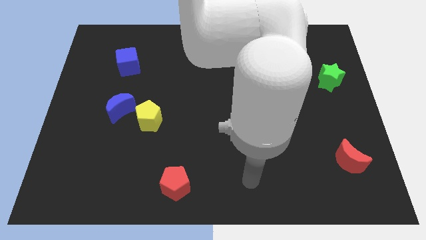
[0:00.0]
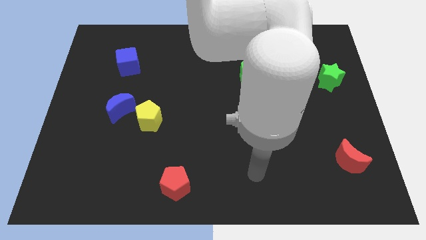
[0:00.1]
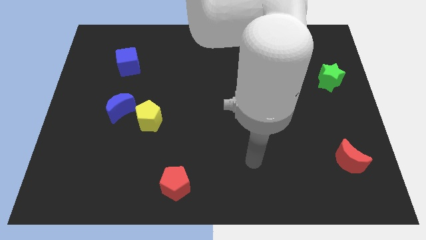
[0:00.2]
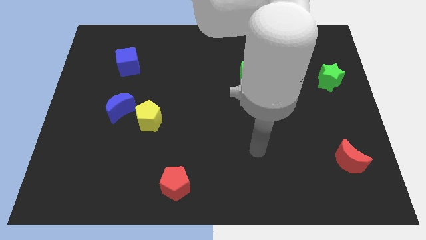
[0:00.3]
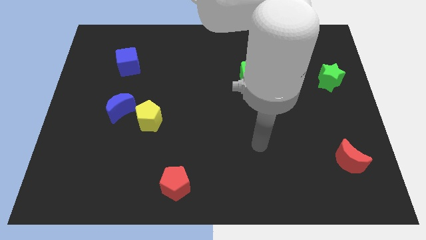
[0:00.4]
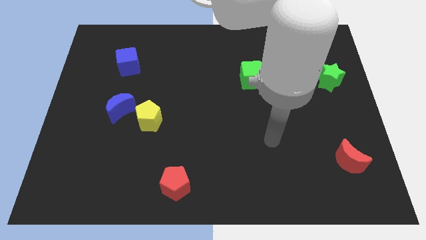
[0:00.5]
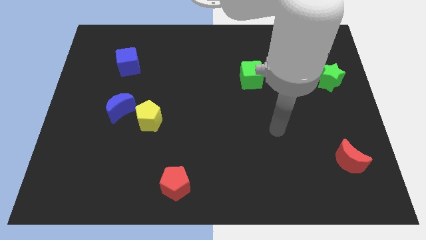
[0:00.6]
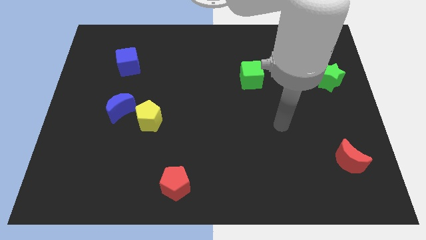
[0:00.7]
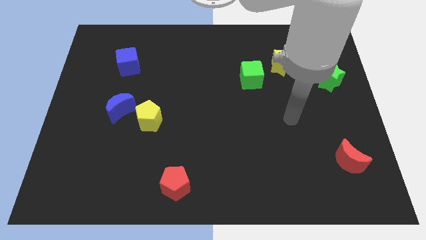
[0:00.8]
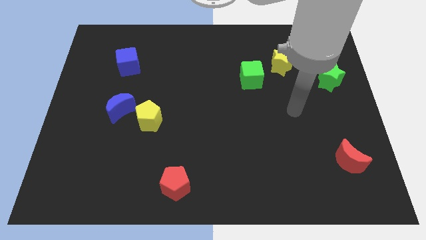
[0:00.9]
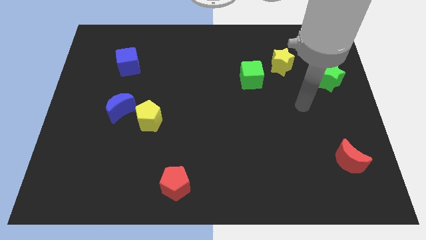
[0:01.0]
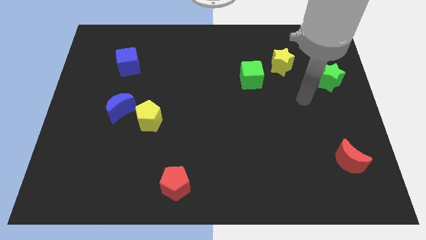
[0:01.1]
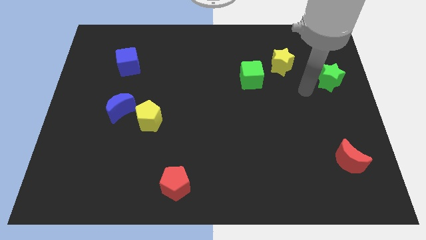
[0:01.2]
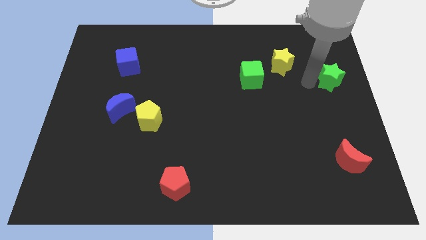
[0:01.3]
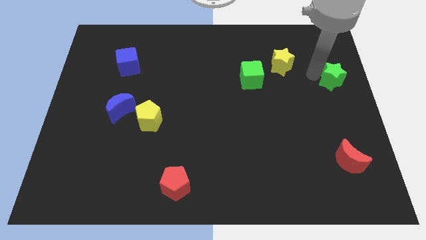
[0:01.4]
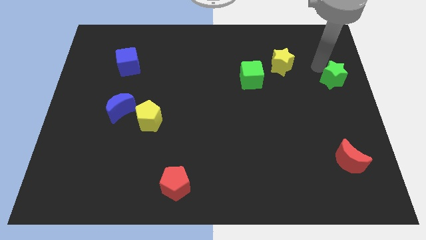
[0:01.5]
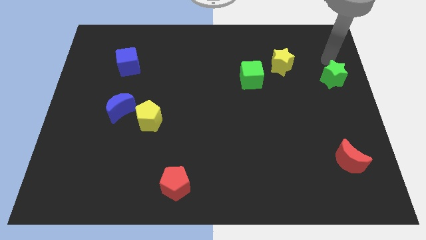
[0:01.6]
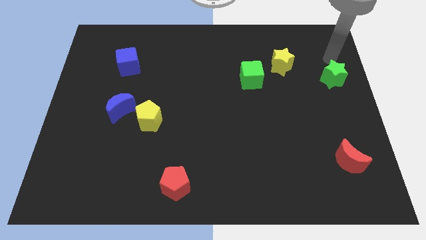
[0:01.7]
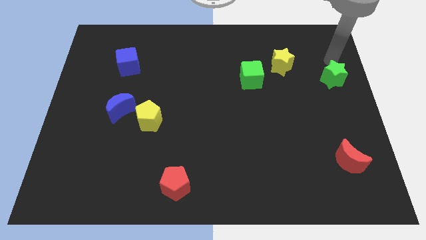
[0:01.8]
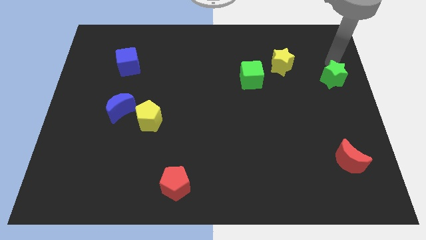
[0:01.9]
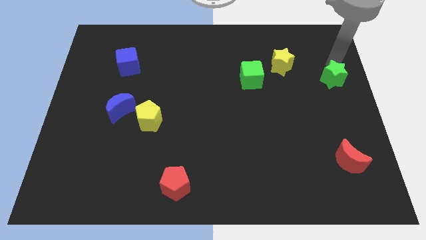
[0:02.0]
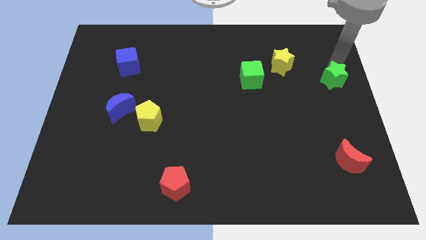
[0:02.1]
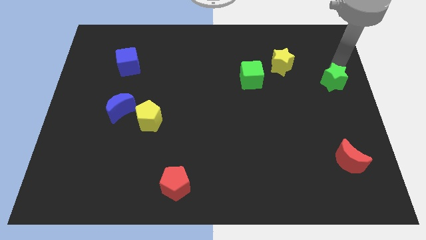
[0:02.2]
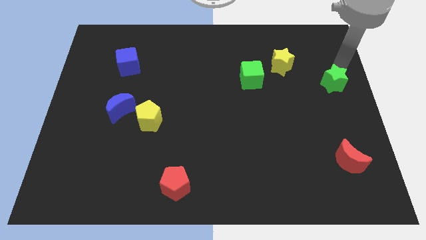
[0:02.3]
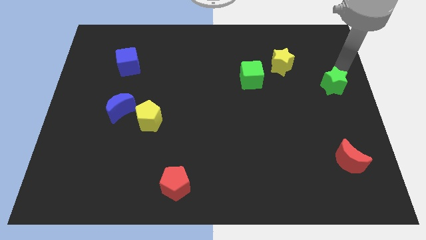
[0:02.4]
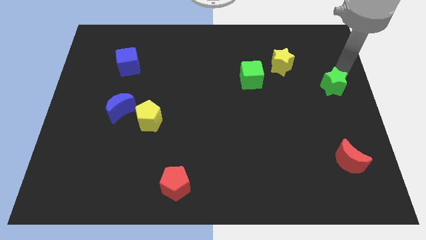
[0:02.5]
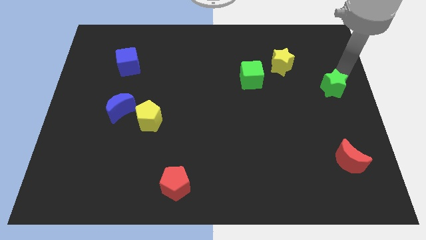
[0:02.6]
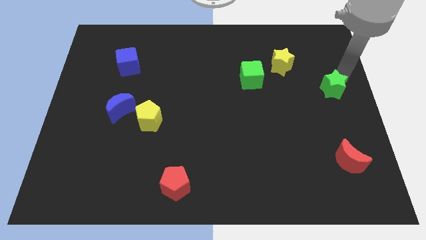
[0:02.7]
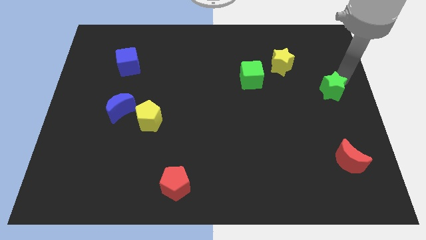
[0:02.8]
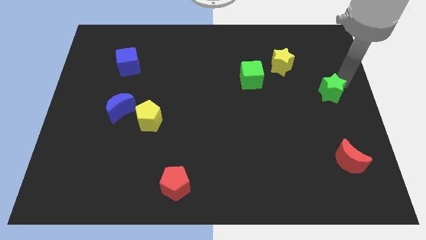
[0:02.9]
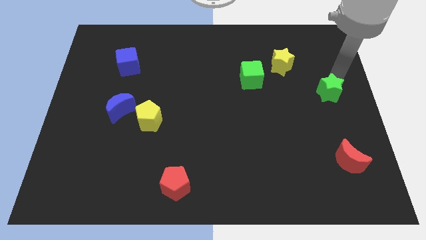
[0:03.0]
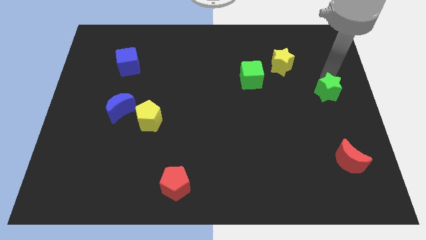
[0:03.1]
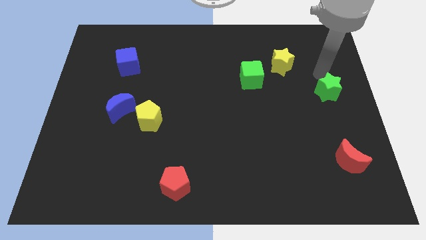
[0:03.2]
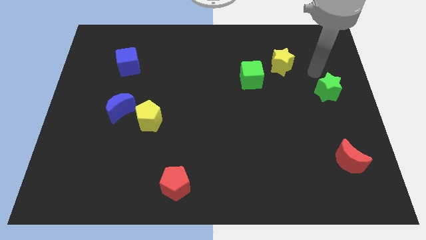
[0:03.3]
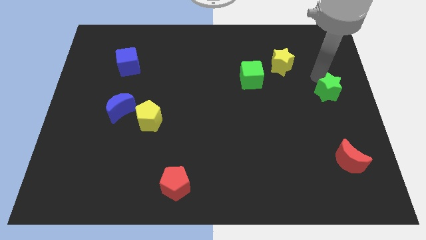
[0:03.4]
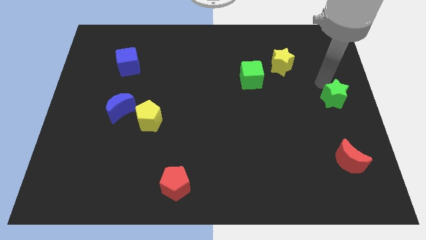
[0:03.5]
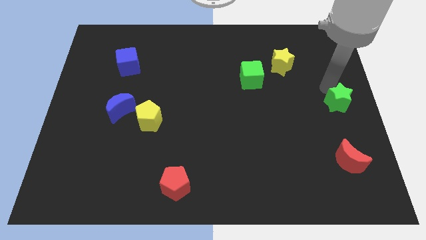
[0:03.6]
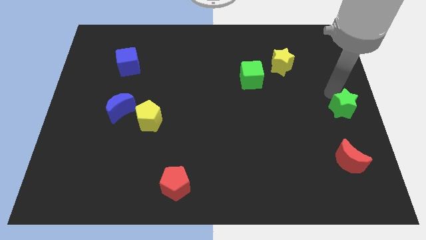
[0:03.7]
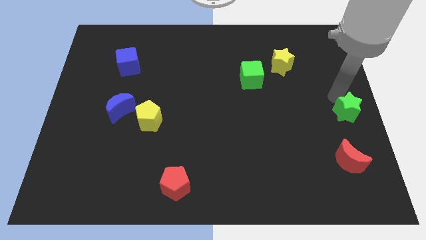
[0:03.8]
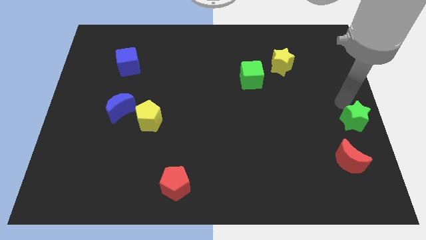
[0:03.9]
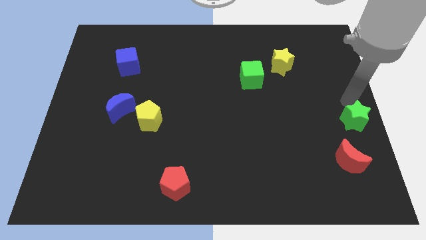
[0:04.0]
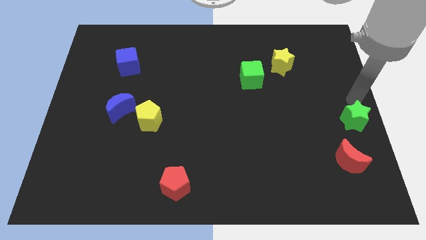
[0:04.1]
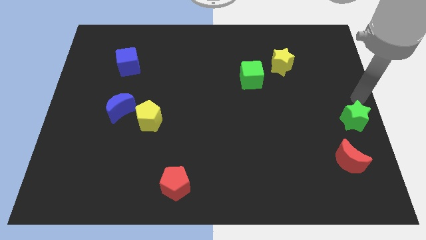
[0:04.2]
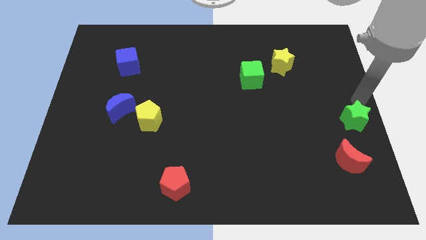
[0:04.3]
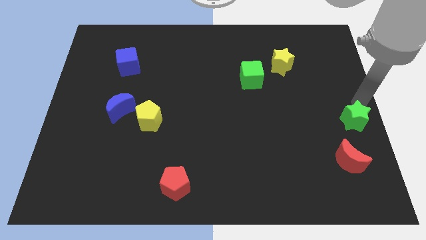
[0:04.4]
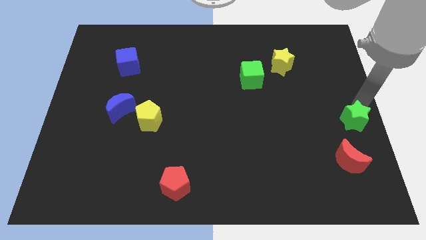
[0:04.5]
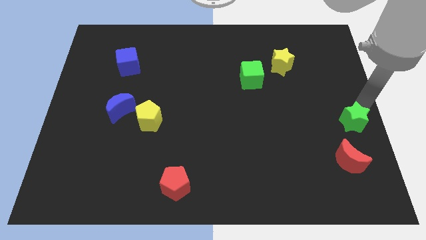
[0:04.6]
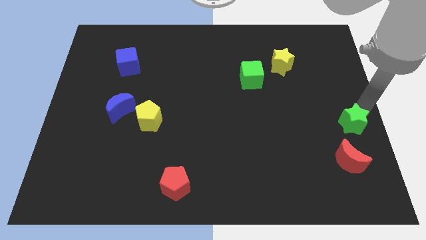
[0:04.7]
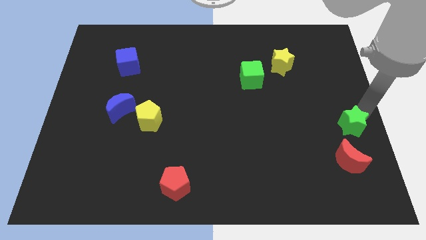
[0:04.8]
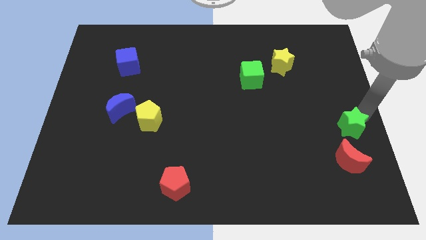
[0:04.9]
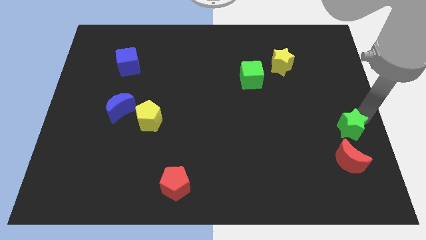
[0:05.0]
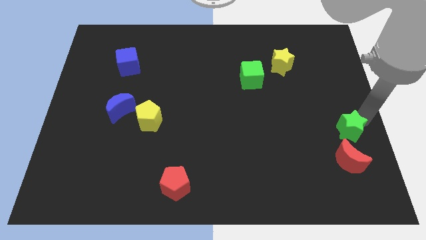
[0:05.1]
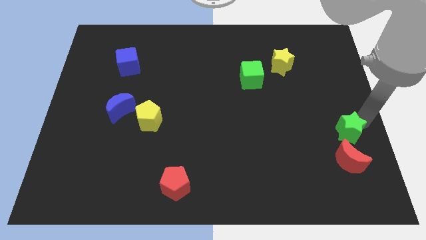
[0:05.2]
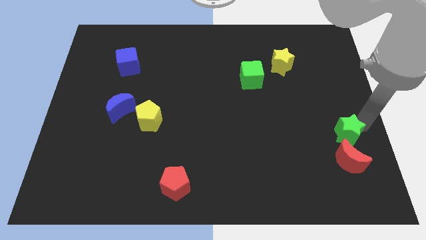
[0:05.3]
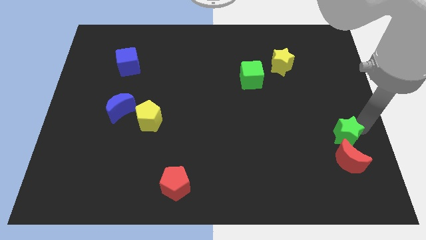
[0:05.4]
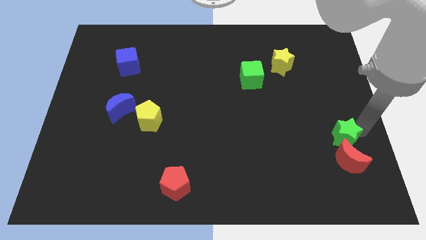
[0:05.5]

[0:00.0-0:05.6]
put the green star close to the red moon

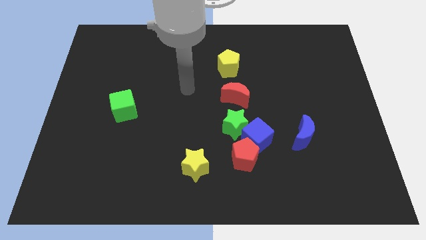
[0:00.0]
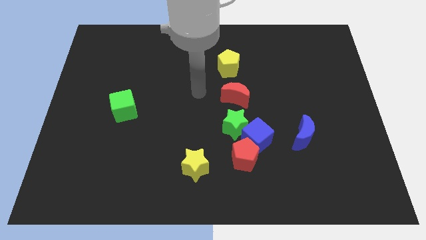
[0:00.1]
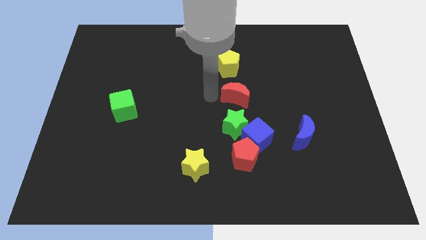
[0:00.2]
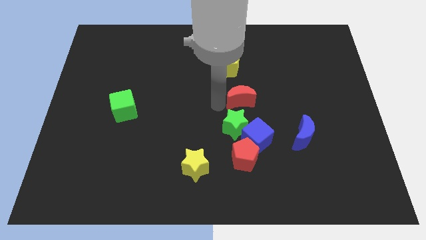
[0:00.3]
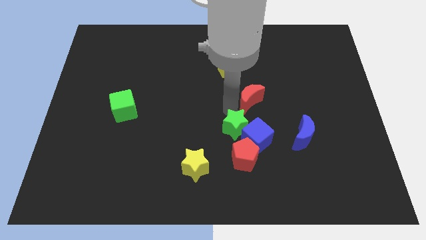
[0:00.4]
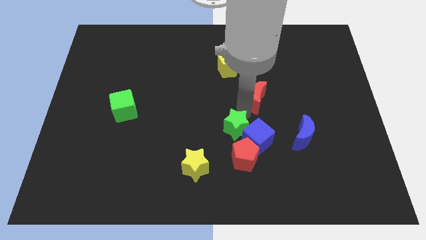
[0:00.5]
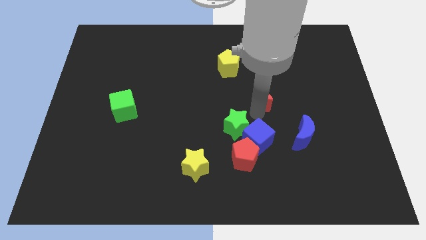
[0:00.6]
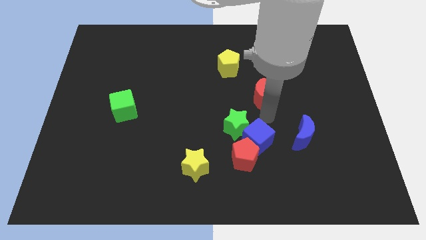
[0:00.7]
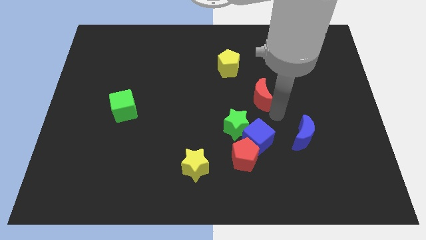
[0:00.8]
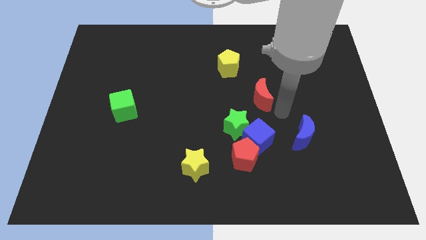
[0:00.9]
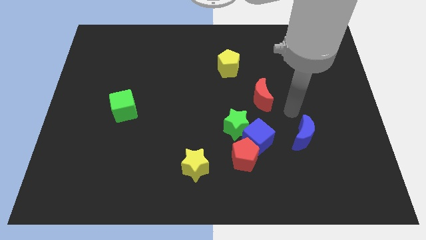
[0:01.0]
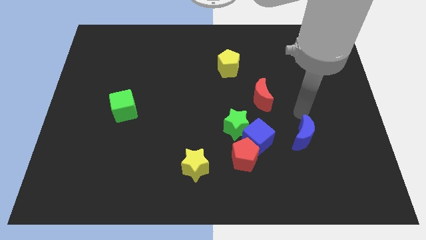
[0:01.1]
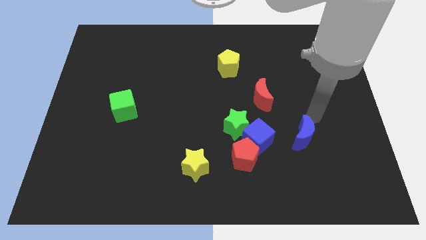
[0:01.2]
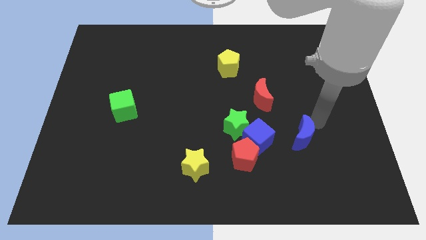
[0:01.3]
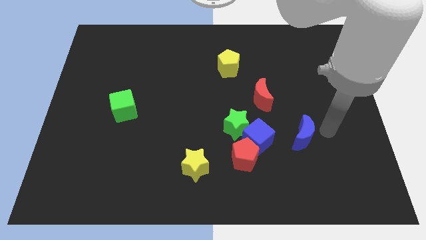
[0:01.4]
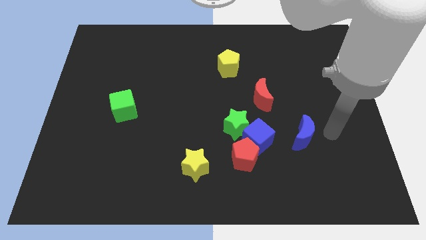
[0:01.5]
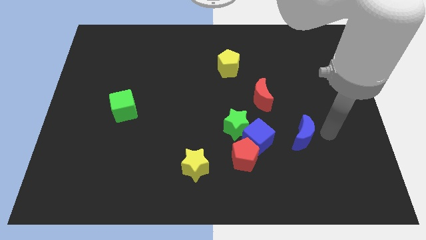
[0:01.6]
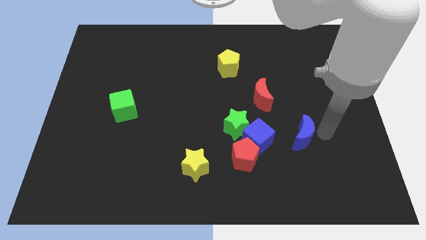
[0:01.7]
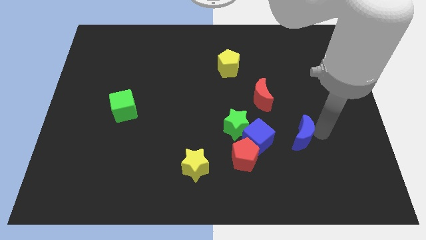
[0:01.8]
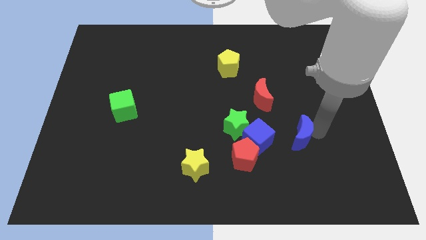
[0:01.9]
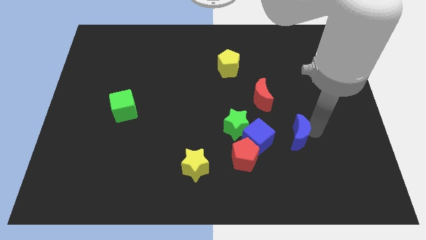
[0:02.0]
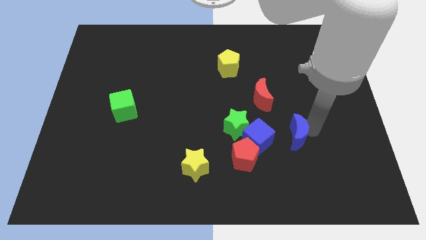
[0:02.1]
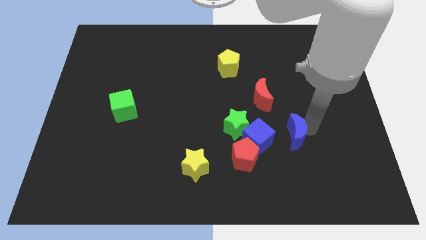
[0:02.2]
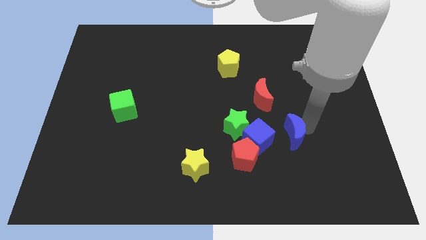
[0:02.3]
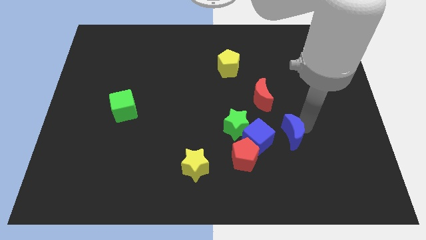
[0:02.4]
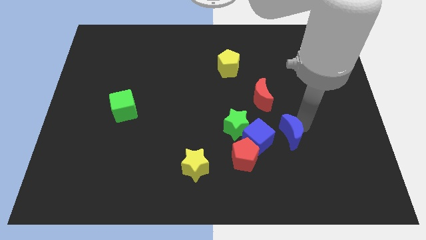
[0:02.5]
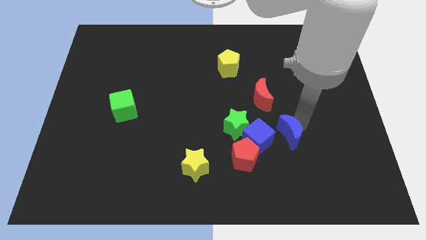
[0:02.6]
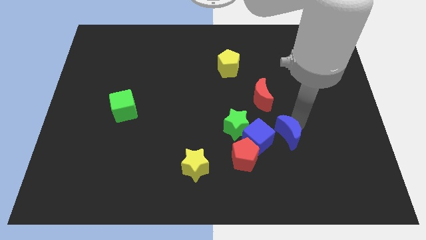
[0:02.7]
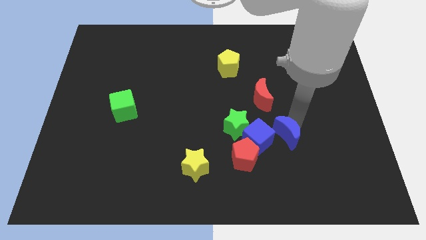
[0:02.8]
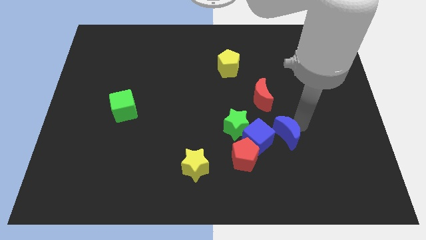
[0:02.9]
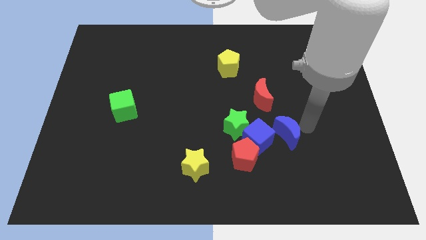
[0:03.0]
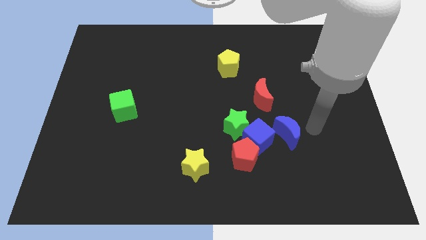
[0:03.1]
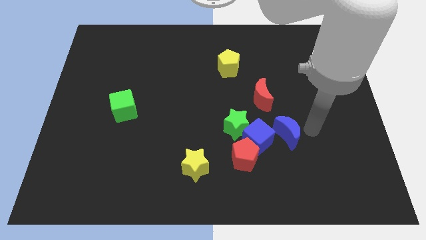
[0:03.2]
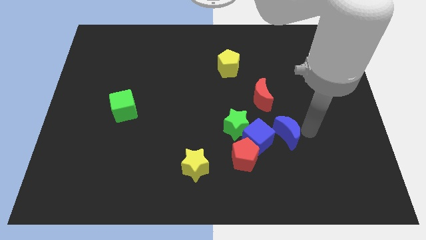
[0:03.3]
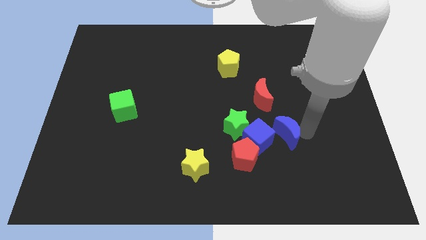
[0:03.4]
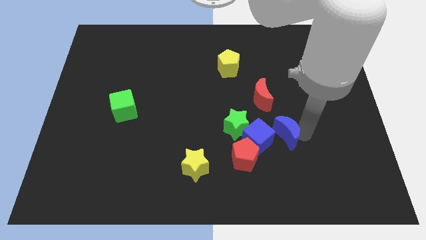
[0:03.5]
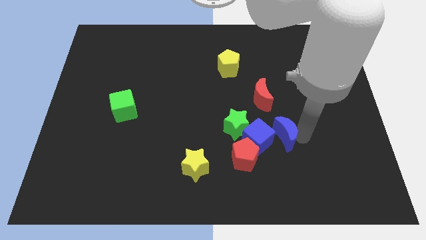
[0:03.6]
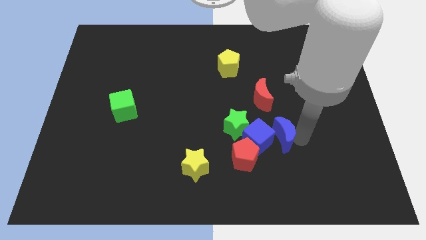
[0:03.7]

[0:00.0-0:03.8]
slide the blue moon next to the blue cube
